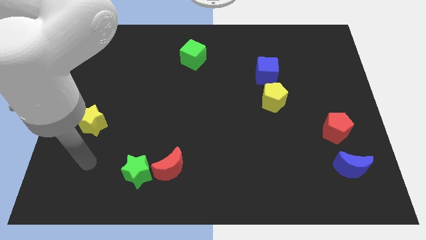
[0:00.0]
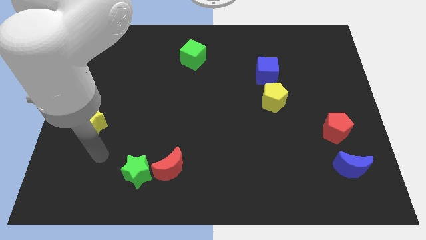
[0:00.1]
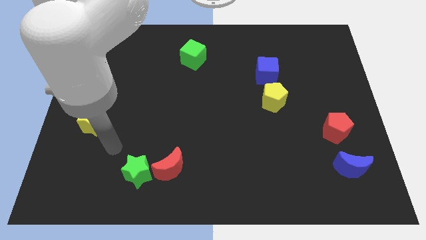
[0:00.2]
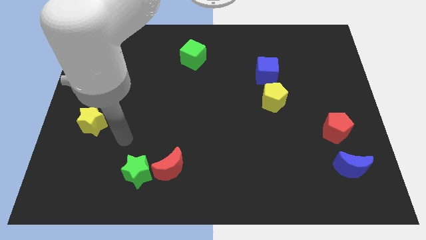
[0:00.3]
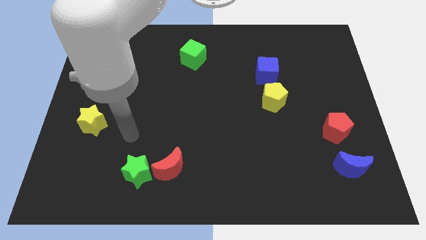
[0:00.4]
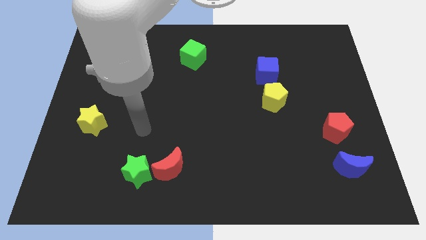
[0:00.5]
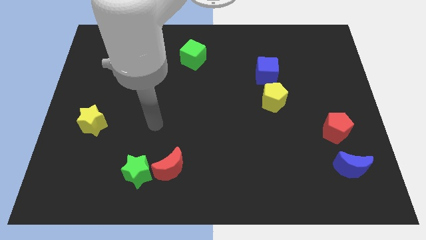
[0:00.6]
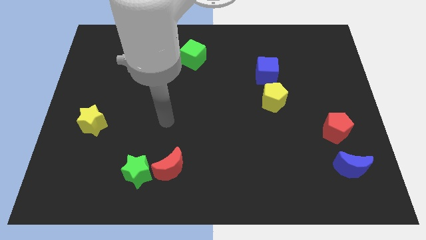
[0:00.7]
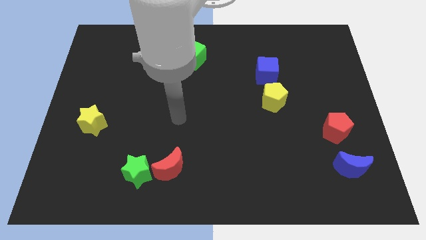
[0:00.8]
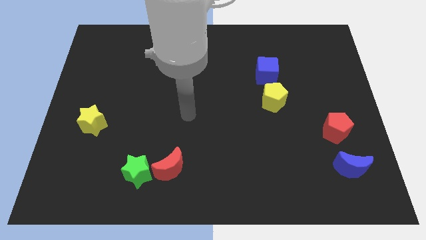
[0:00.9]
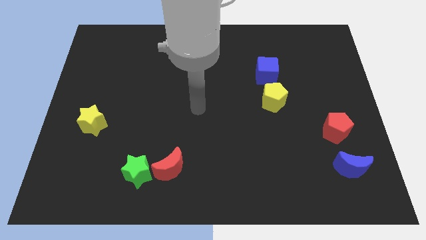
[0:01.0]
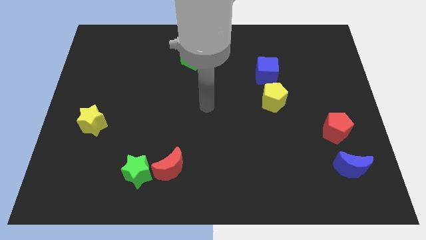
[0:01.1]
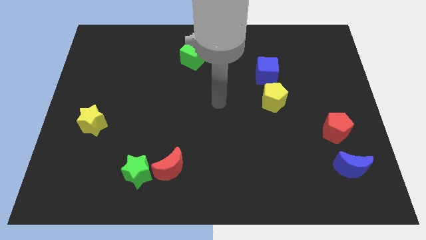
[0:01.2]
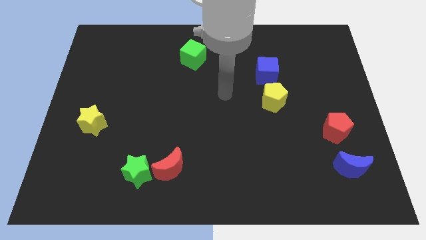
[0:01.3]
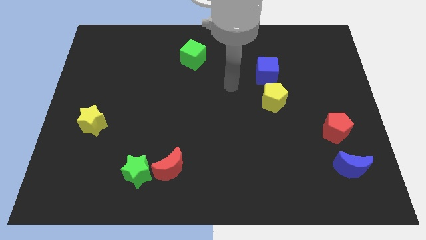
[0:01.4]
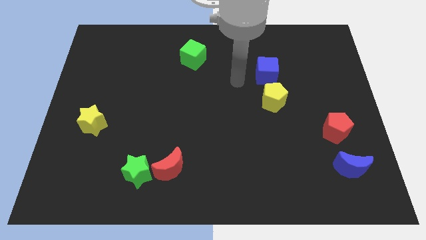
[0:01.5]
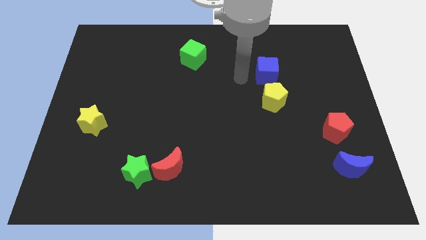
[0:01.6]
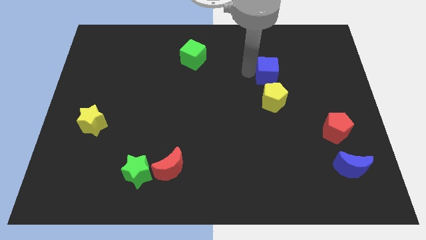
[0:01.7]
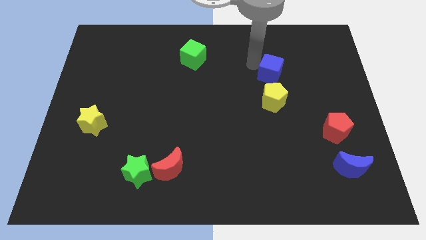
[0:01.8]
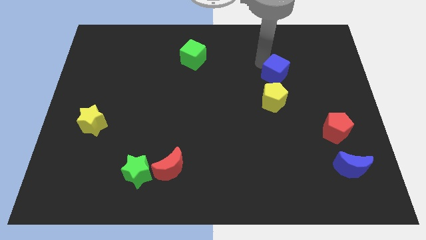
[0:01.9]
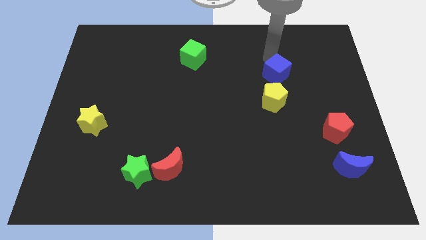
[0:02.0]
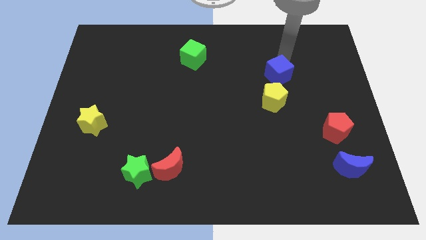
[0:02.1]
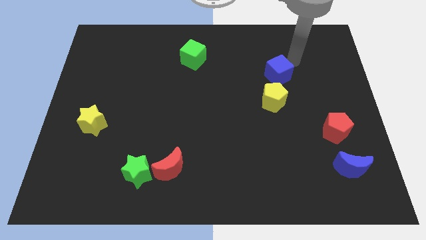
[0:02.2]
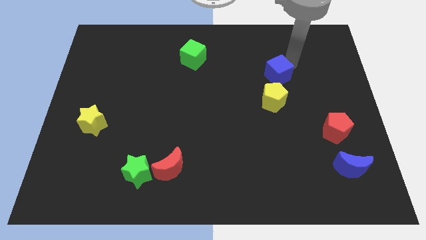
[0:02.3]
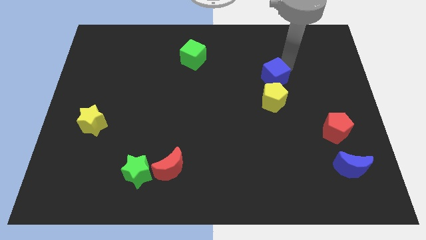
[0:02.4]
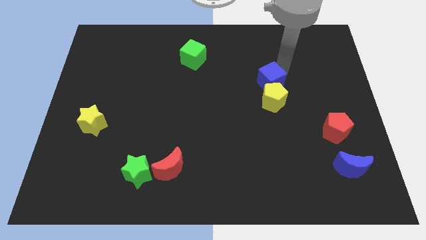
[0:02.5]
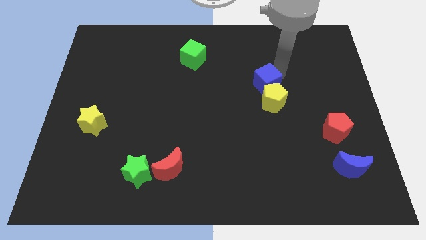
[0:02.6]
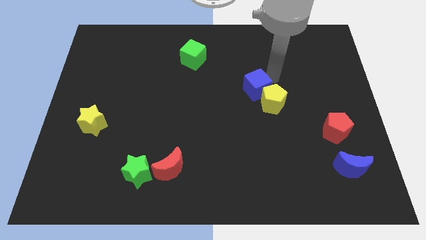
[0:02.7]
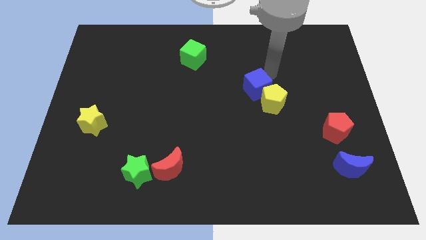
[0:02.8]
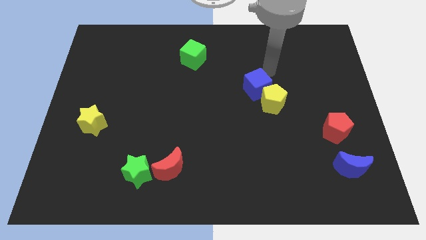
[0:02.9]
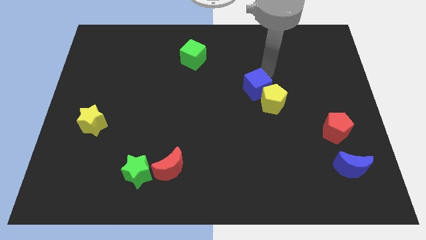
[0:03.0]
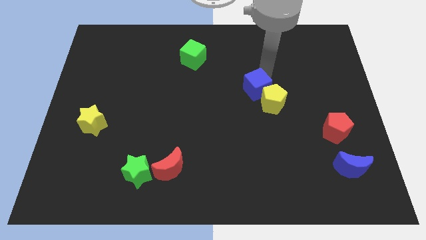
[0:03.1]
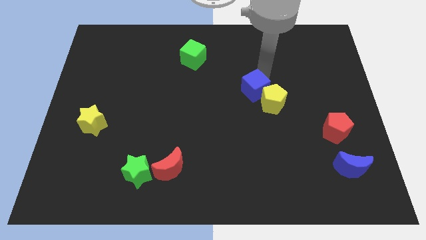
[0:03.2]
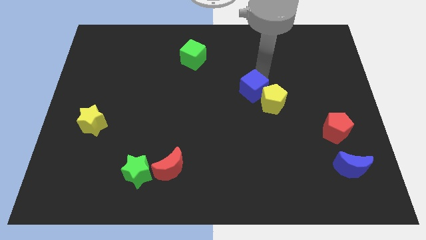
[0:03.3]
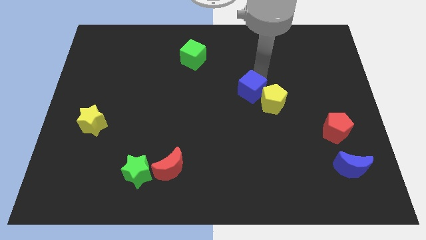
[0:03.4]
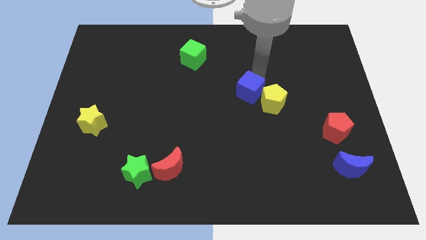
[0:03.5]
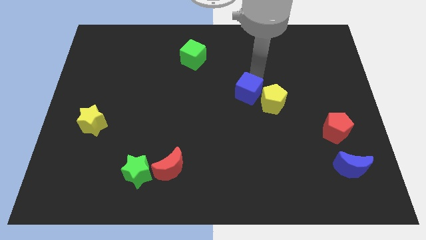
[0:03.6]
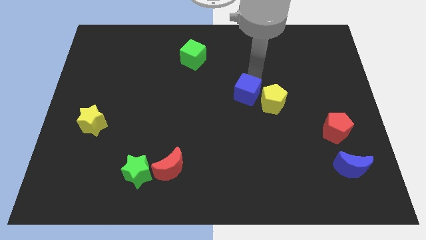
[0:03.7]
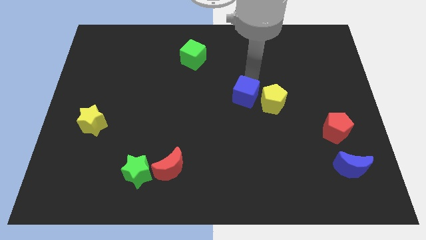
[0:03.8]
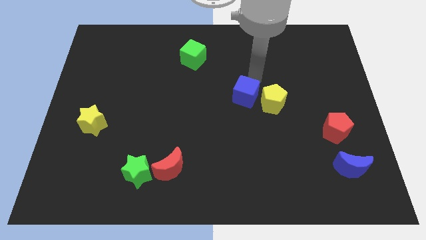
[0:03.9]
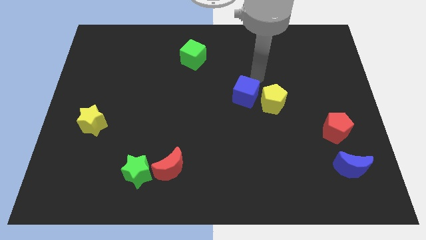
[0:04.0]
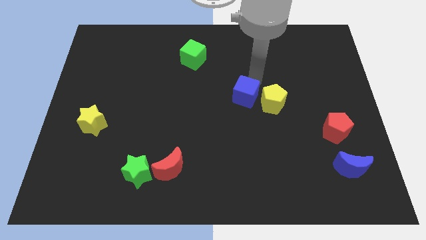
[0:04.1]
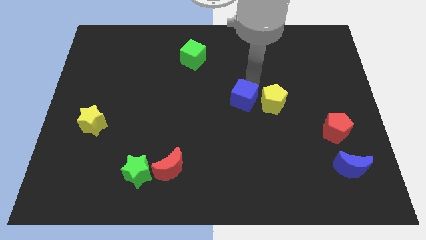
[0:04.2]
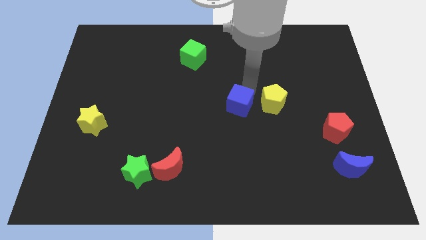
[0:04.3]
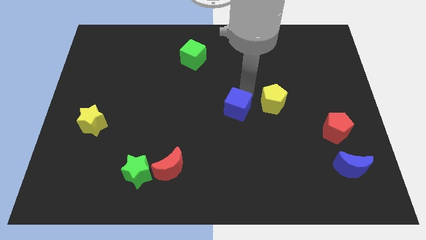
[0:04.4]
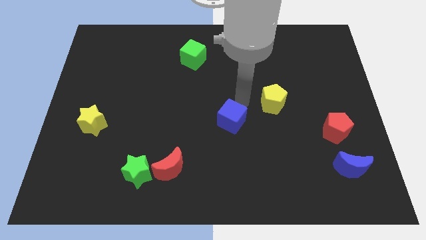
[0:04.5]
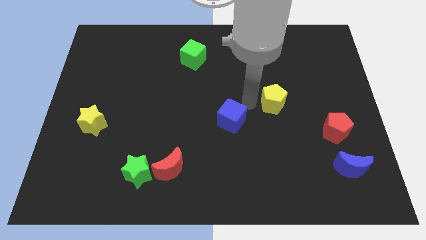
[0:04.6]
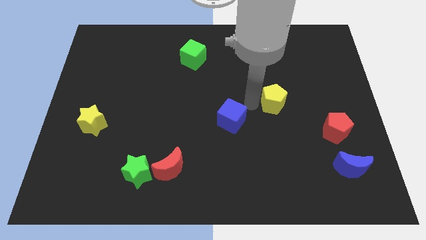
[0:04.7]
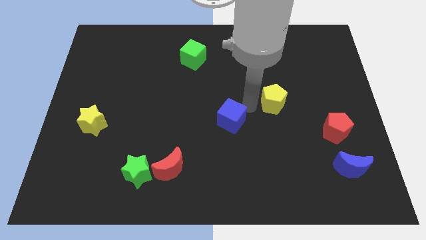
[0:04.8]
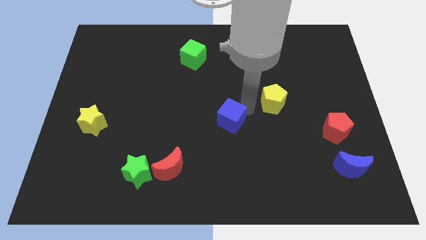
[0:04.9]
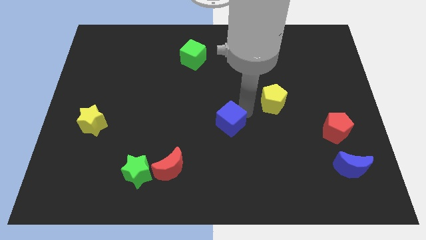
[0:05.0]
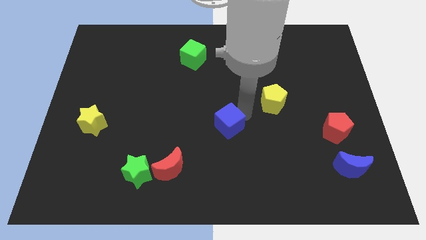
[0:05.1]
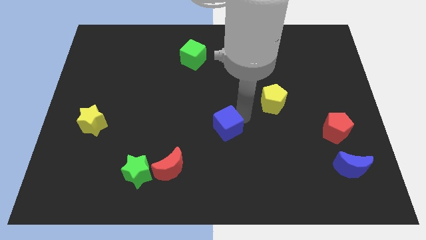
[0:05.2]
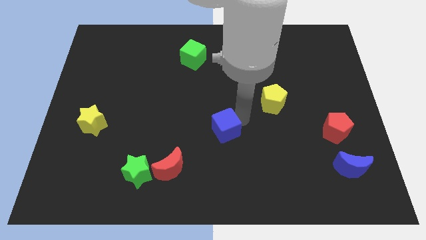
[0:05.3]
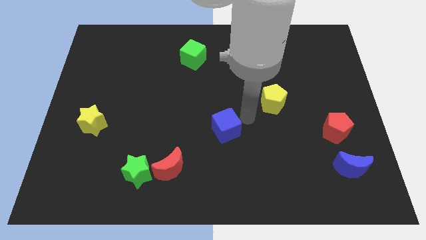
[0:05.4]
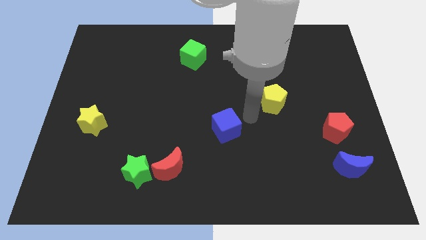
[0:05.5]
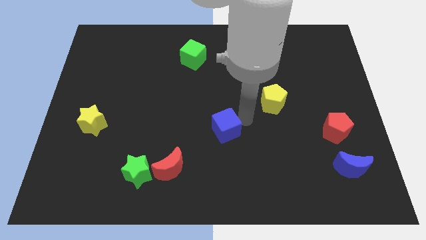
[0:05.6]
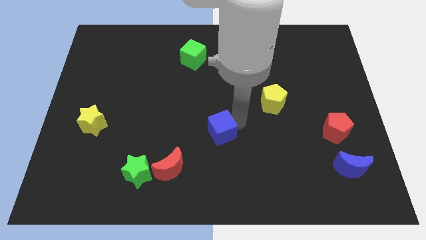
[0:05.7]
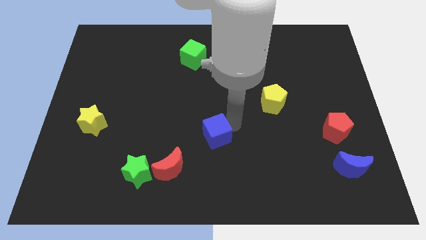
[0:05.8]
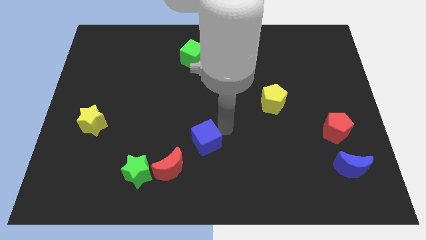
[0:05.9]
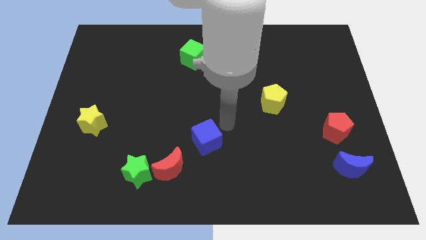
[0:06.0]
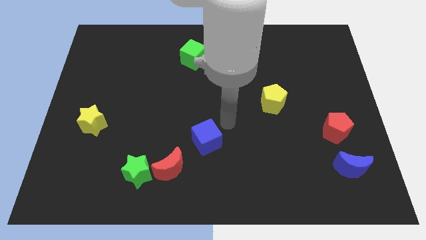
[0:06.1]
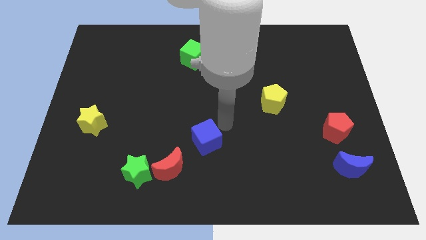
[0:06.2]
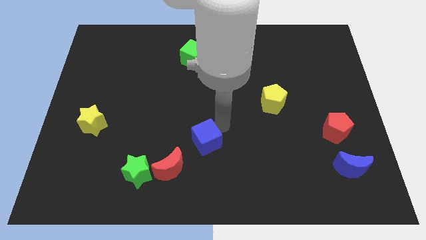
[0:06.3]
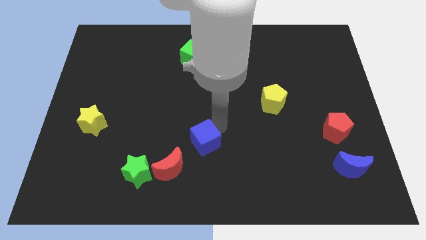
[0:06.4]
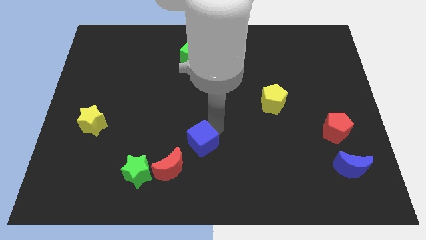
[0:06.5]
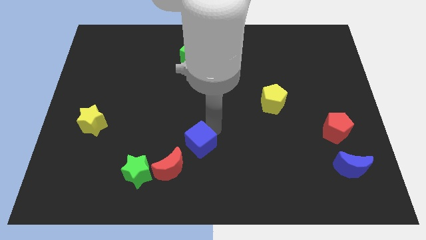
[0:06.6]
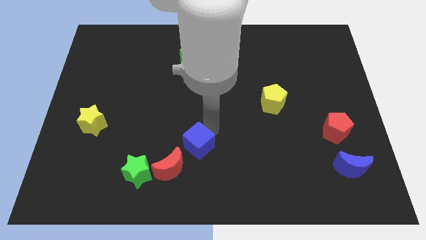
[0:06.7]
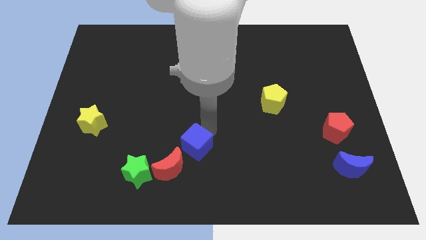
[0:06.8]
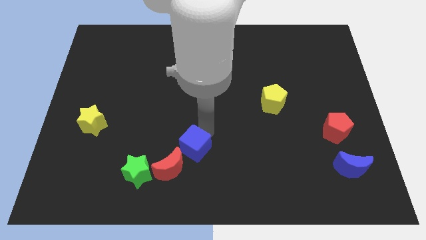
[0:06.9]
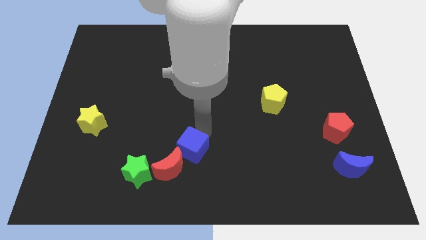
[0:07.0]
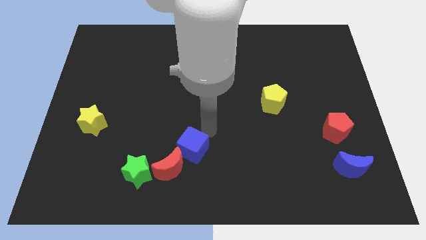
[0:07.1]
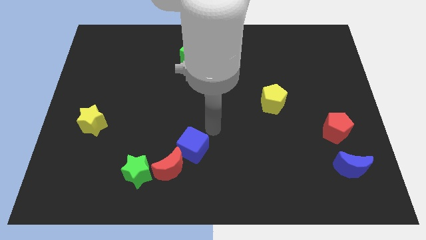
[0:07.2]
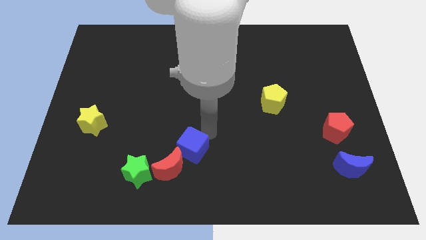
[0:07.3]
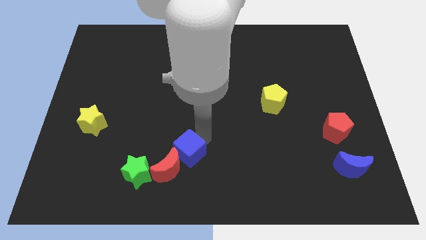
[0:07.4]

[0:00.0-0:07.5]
put the blue cube next to the red moon
